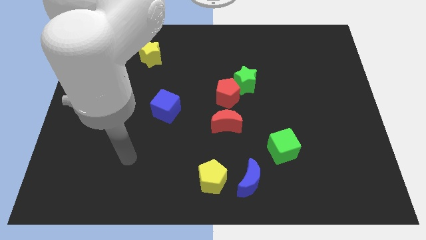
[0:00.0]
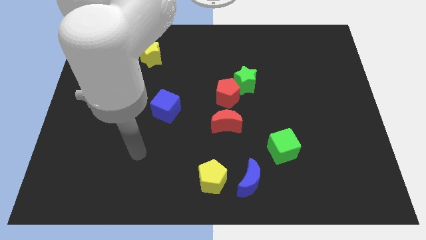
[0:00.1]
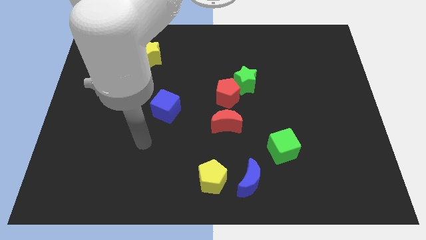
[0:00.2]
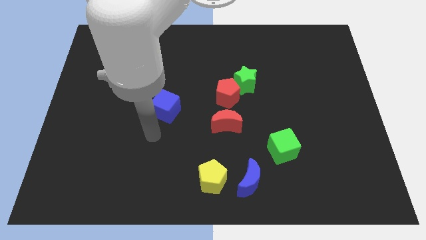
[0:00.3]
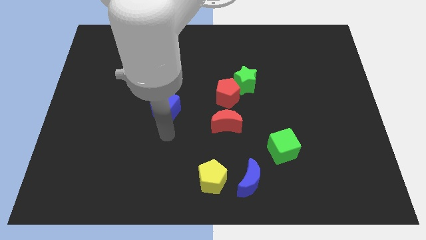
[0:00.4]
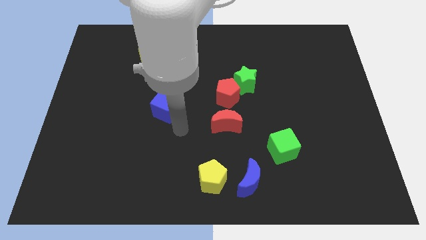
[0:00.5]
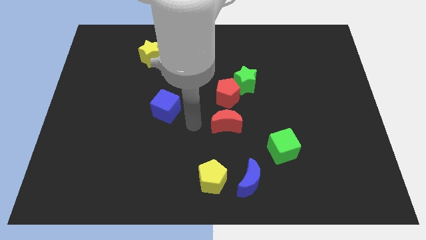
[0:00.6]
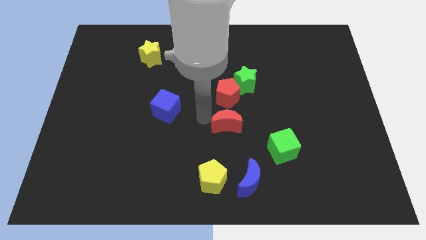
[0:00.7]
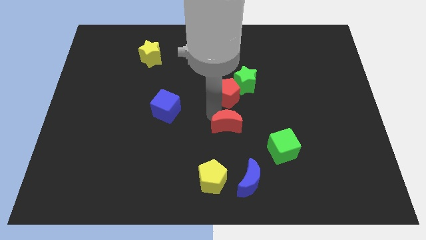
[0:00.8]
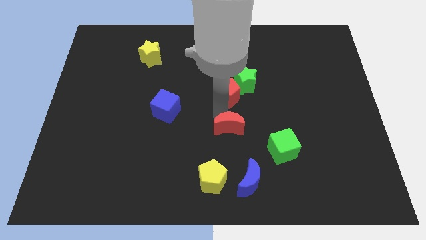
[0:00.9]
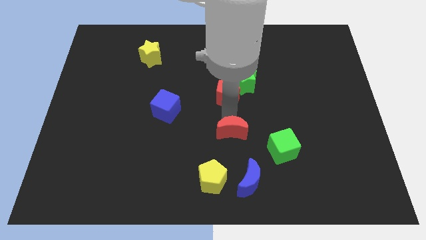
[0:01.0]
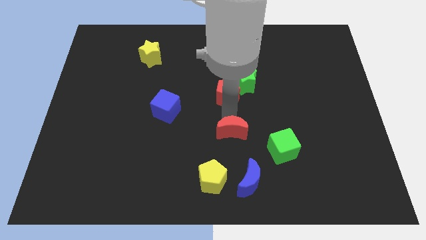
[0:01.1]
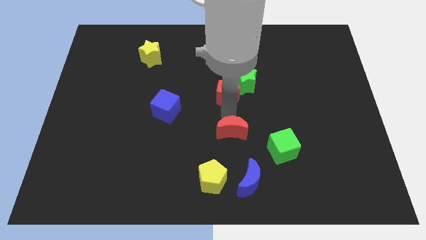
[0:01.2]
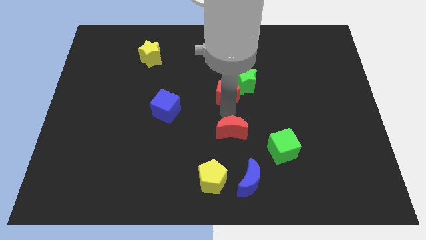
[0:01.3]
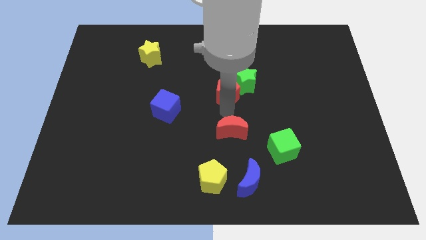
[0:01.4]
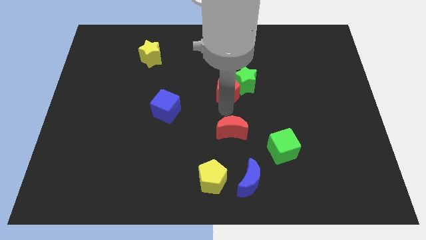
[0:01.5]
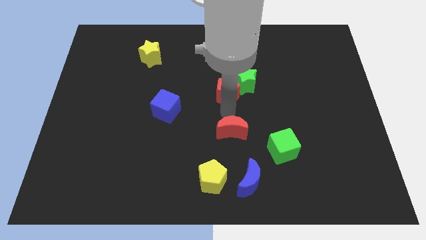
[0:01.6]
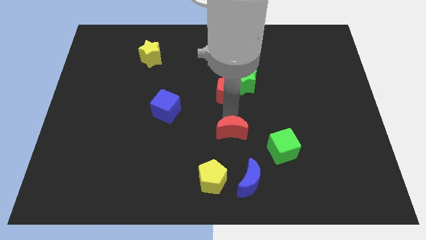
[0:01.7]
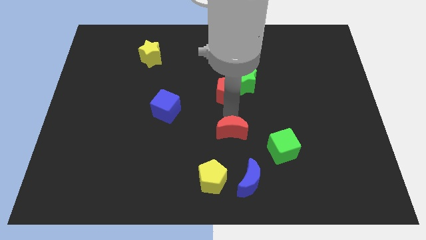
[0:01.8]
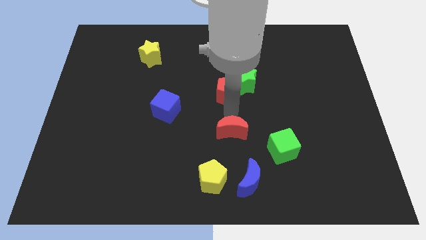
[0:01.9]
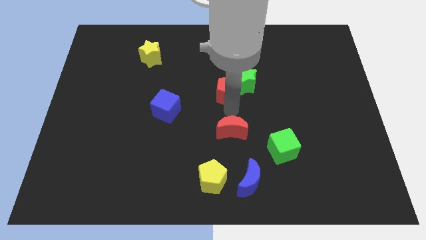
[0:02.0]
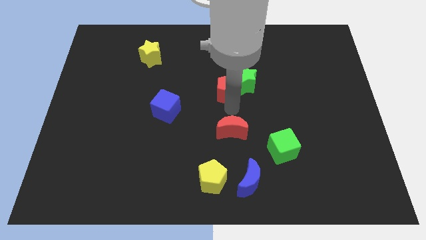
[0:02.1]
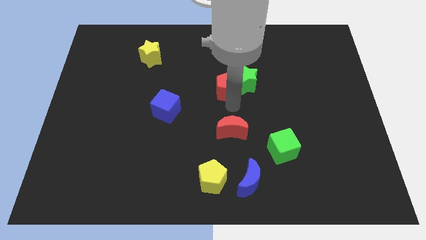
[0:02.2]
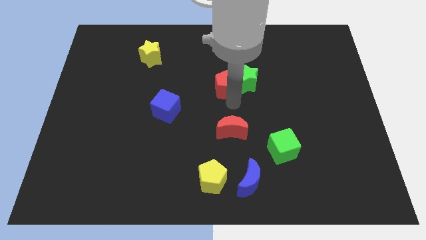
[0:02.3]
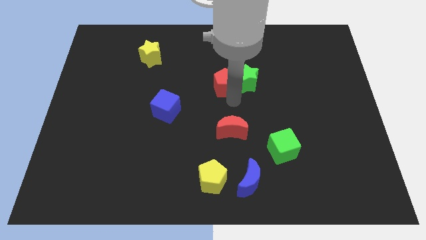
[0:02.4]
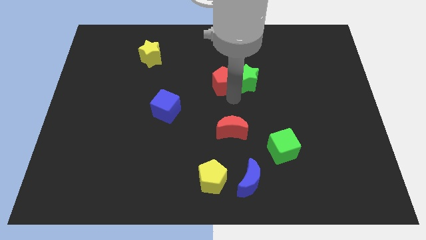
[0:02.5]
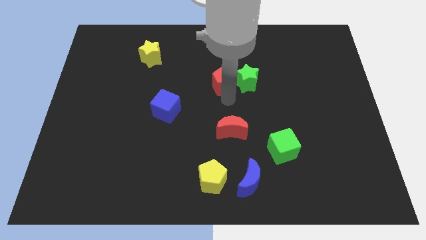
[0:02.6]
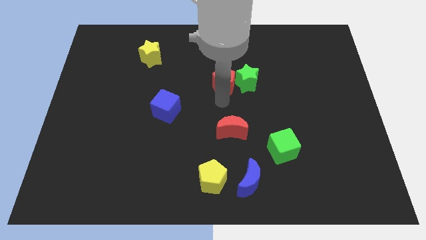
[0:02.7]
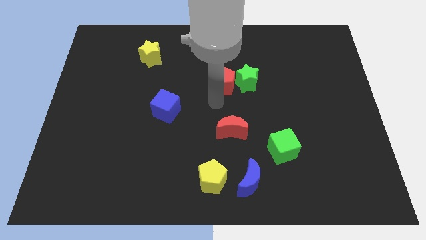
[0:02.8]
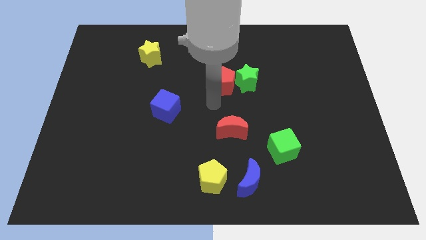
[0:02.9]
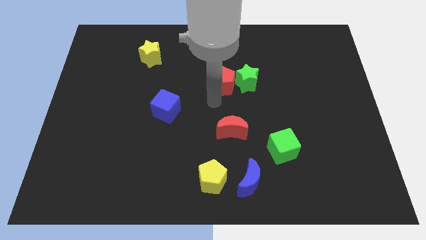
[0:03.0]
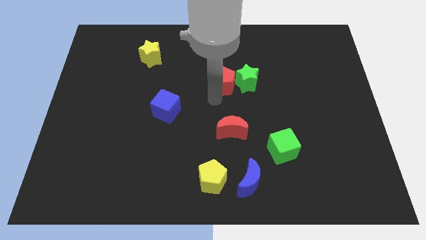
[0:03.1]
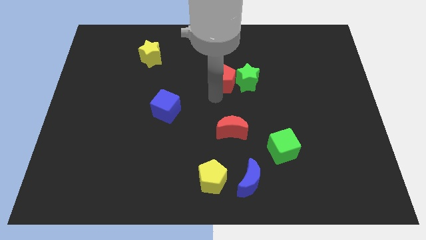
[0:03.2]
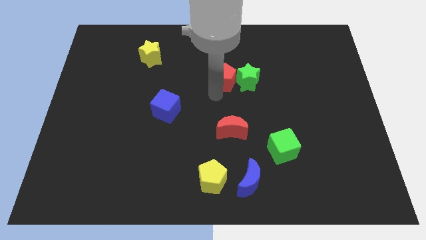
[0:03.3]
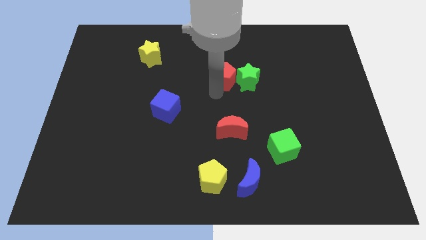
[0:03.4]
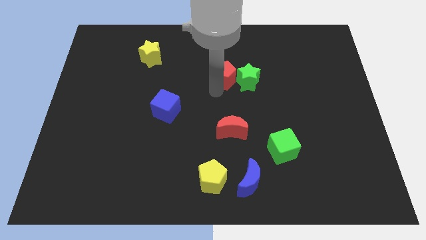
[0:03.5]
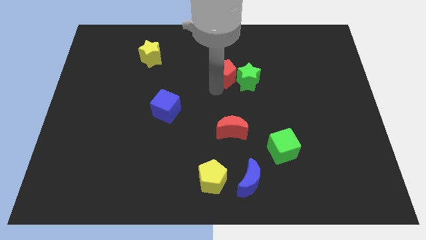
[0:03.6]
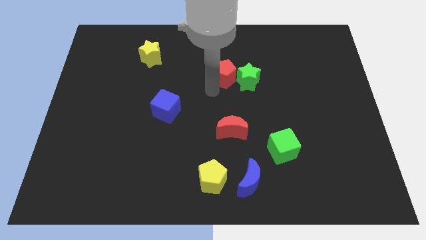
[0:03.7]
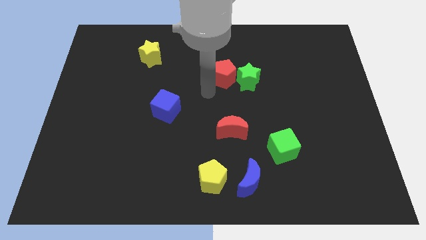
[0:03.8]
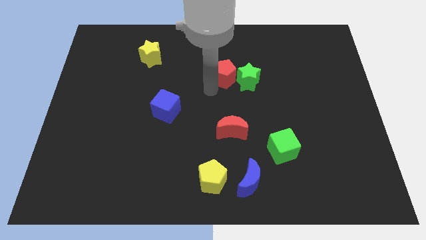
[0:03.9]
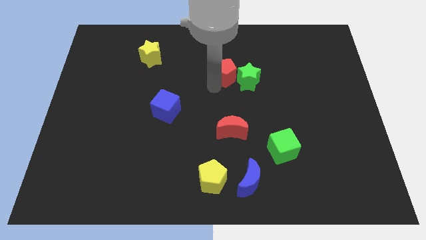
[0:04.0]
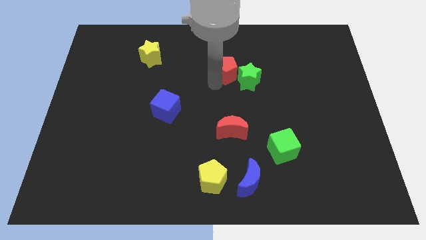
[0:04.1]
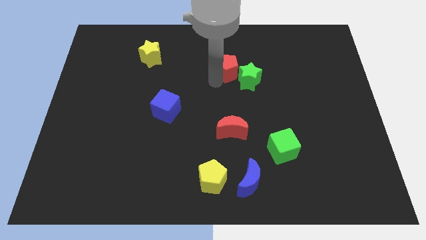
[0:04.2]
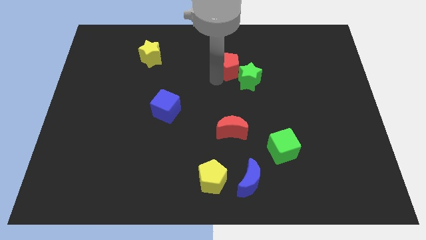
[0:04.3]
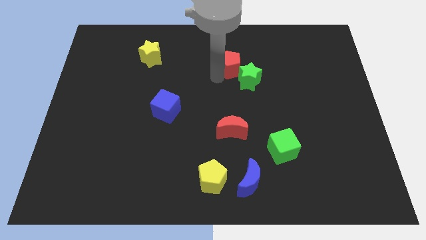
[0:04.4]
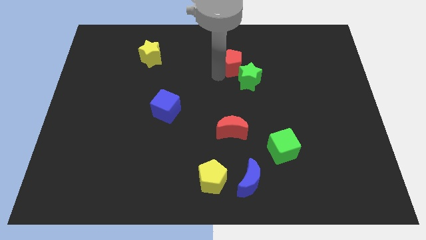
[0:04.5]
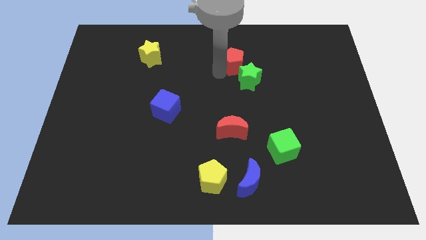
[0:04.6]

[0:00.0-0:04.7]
push the red pentagon somewhat upwards and to the right

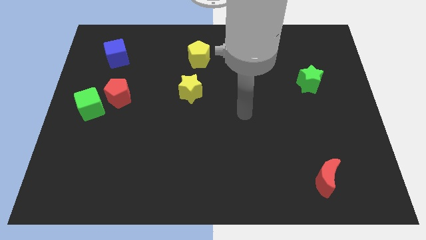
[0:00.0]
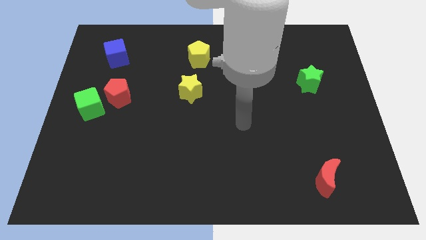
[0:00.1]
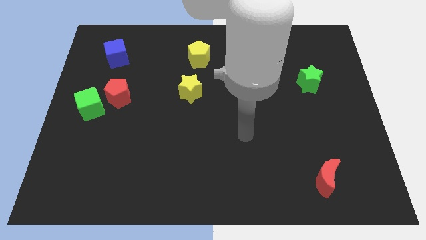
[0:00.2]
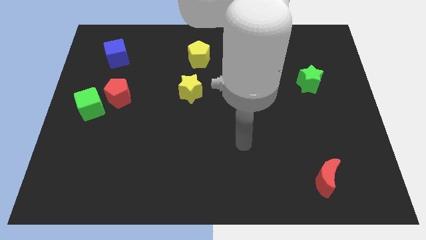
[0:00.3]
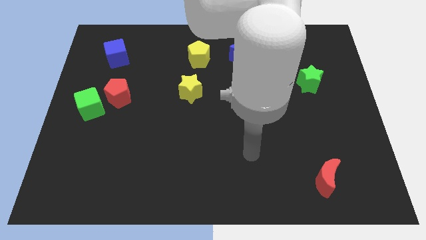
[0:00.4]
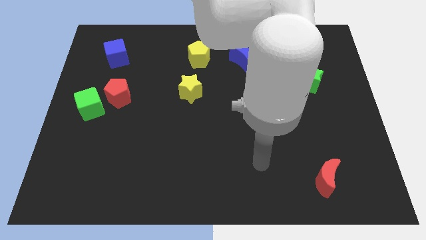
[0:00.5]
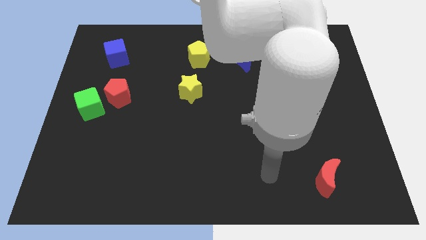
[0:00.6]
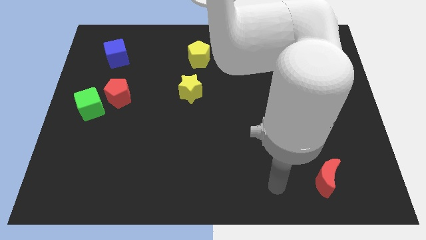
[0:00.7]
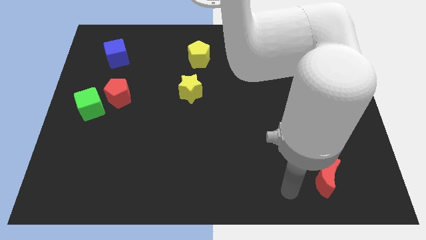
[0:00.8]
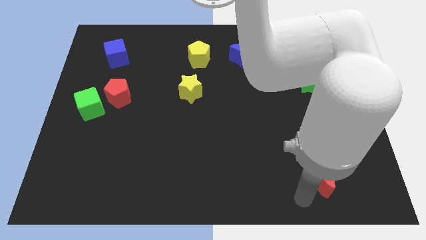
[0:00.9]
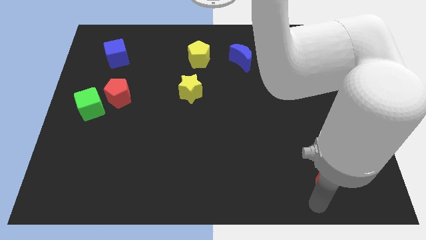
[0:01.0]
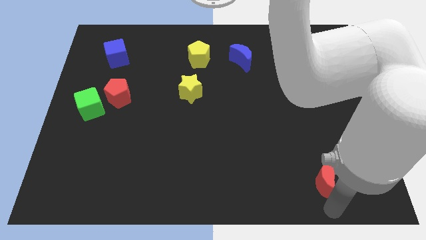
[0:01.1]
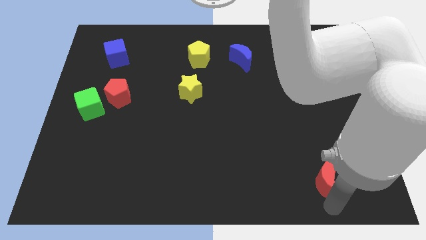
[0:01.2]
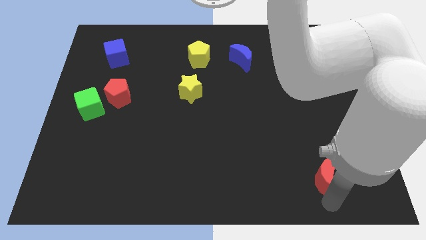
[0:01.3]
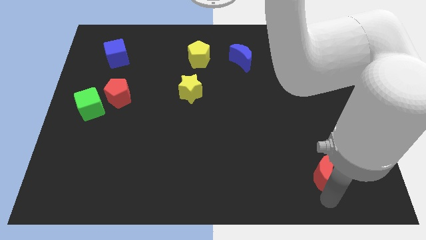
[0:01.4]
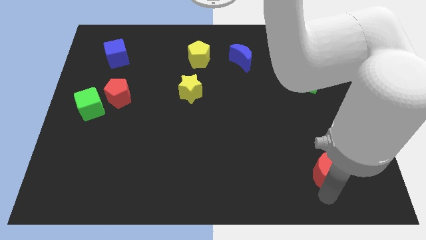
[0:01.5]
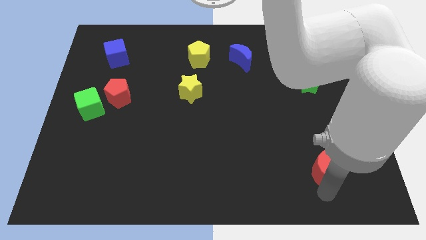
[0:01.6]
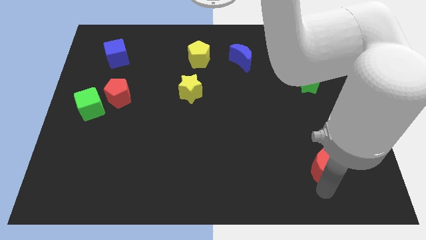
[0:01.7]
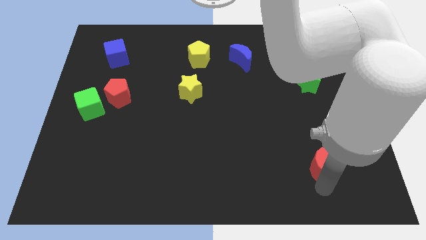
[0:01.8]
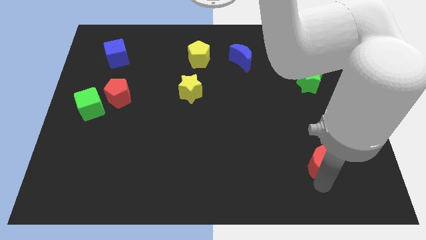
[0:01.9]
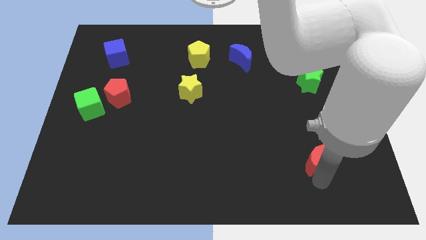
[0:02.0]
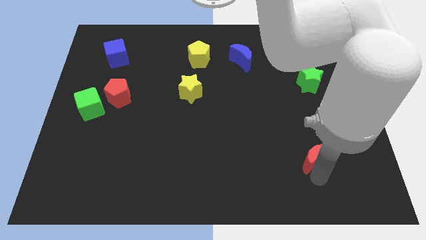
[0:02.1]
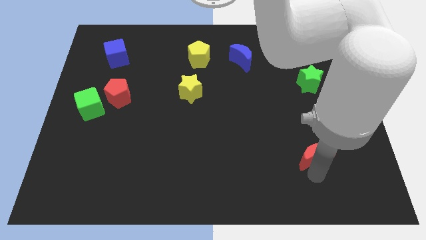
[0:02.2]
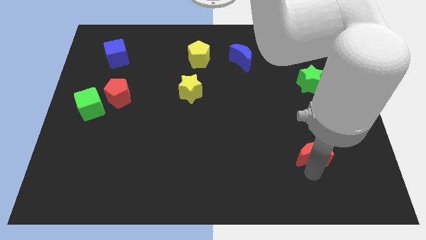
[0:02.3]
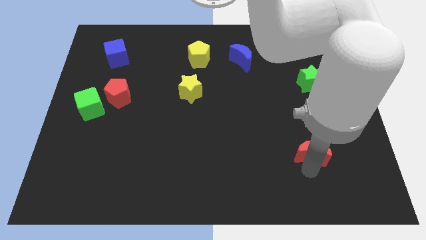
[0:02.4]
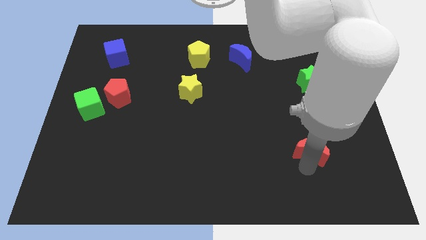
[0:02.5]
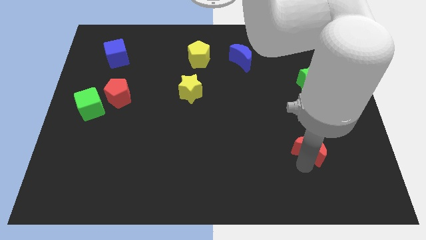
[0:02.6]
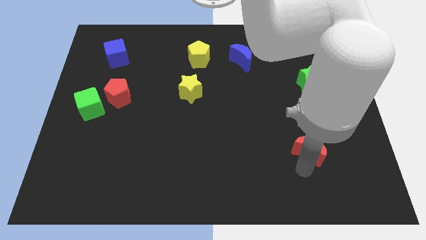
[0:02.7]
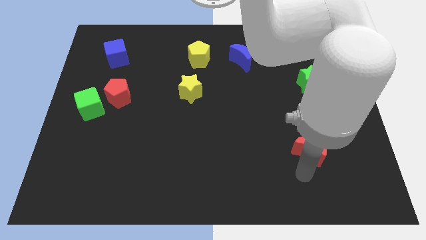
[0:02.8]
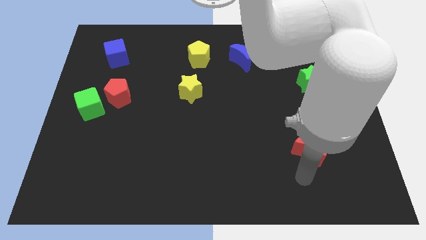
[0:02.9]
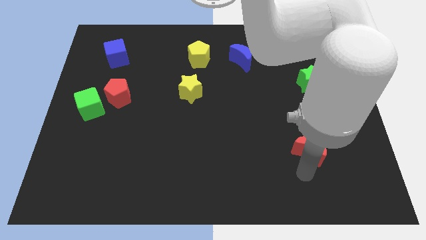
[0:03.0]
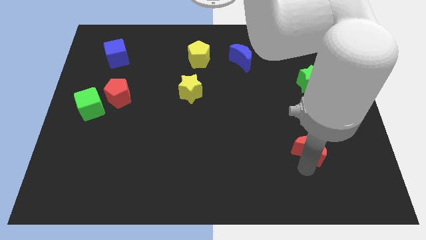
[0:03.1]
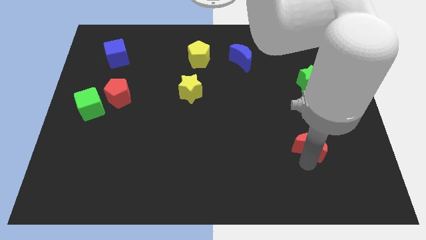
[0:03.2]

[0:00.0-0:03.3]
slide the red moon up a bit
